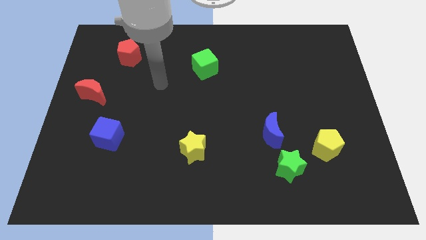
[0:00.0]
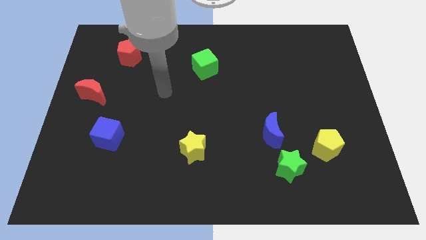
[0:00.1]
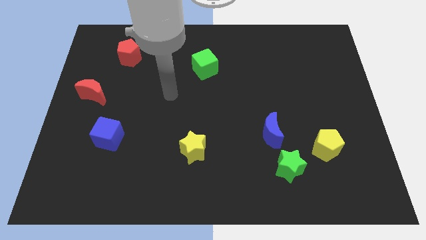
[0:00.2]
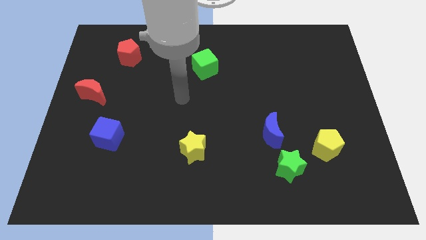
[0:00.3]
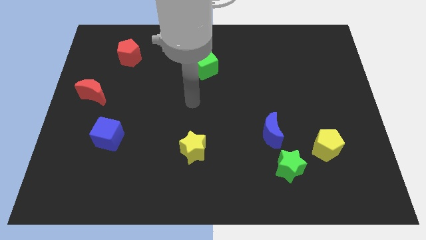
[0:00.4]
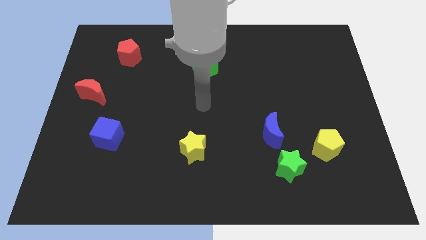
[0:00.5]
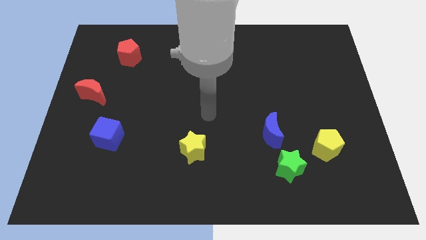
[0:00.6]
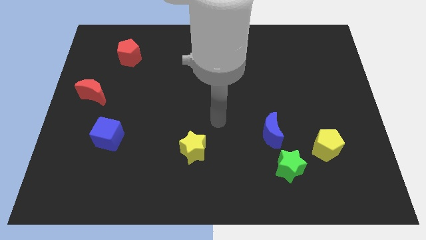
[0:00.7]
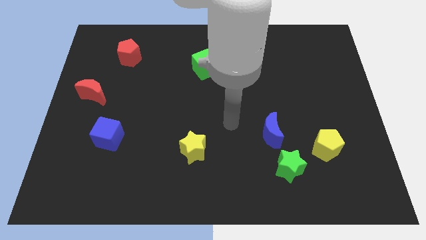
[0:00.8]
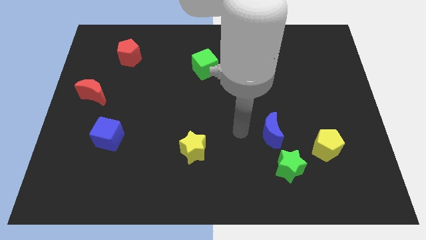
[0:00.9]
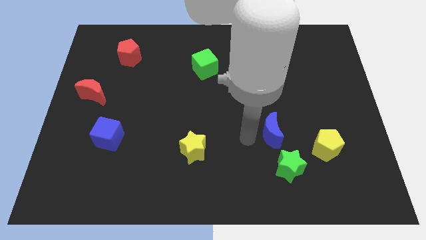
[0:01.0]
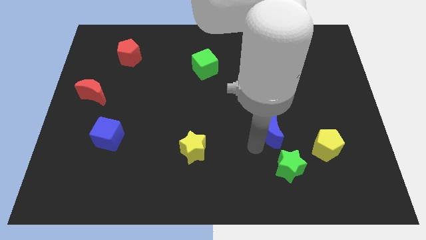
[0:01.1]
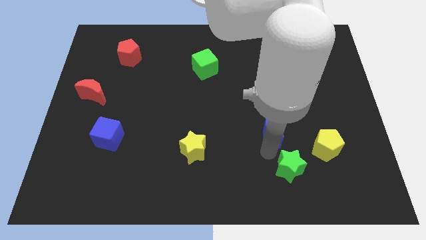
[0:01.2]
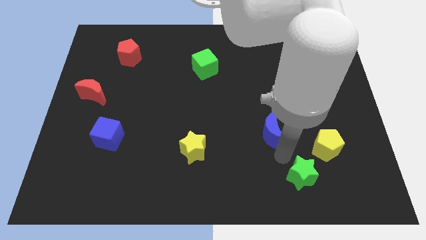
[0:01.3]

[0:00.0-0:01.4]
separate the blue moon from the green star

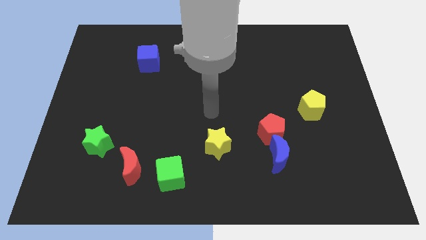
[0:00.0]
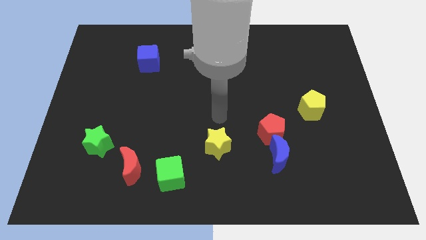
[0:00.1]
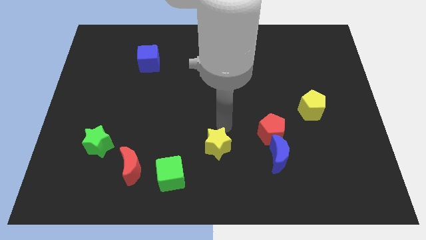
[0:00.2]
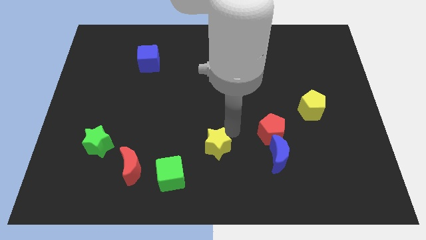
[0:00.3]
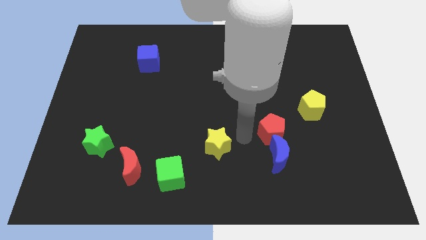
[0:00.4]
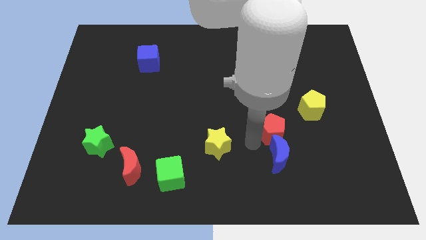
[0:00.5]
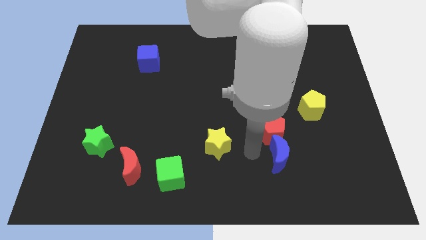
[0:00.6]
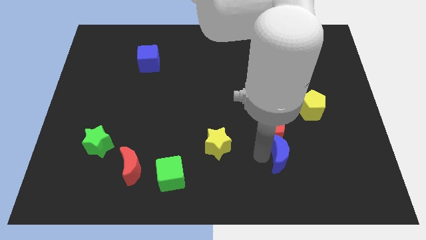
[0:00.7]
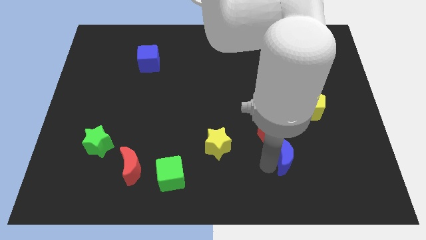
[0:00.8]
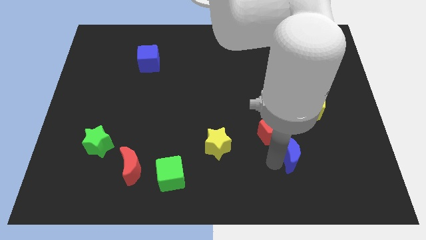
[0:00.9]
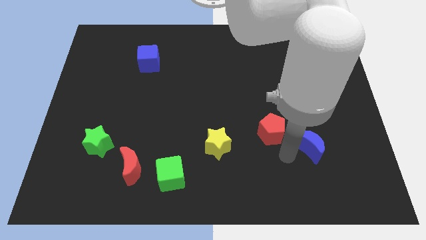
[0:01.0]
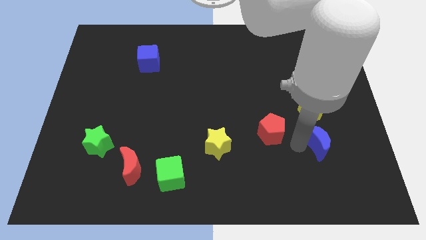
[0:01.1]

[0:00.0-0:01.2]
move the red pentagon away from the blue moon

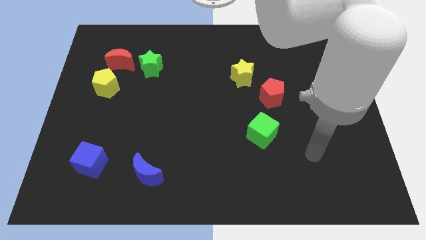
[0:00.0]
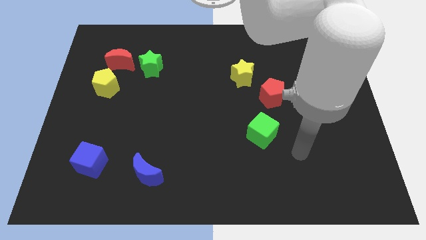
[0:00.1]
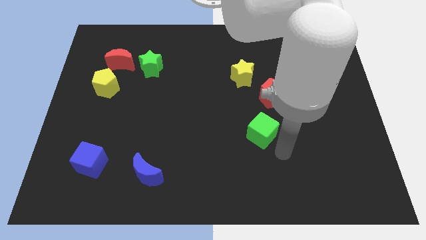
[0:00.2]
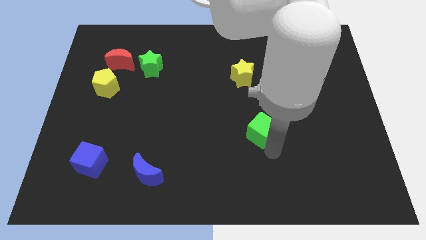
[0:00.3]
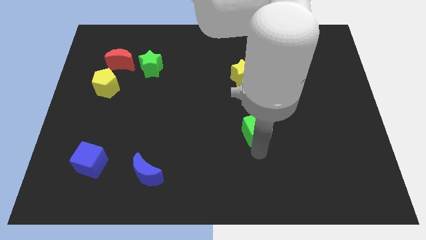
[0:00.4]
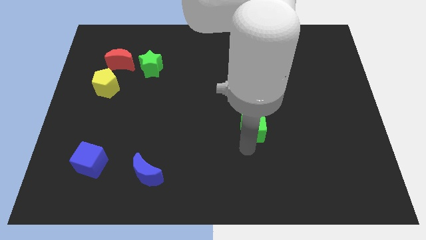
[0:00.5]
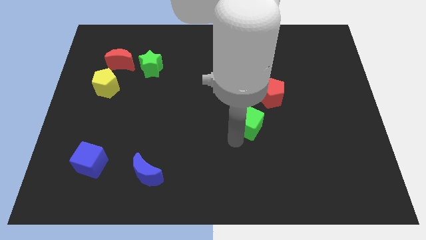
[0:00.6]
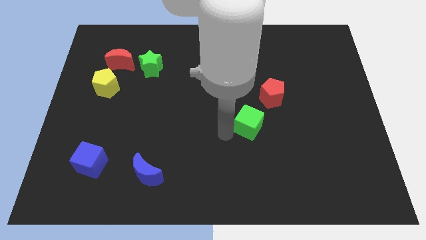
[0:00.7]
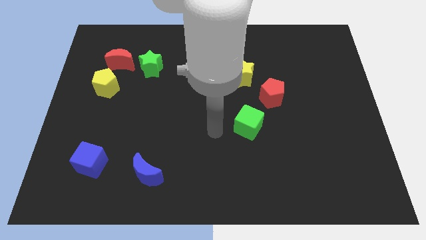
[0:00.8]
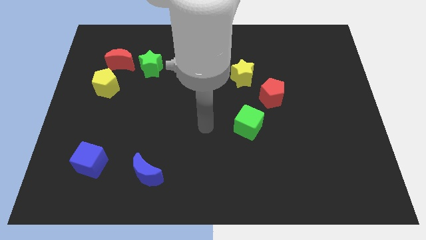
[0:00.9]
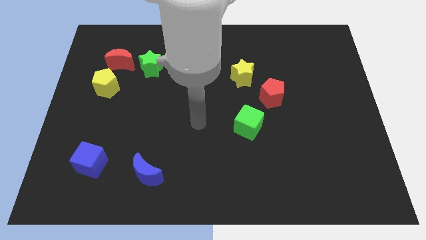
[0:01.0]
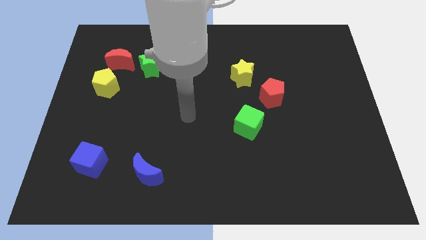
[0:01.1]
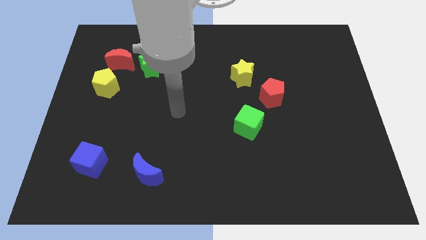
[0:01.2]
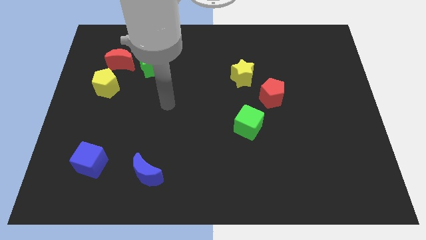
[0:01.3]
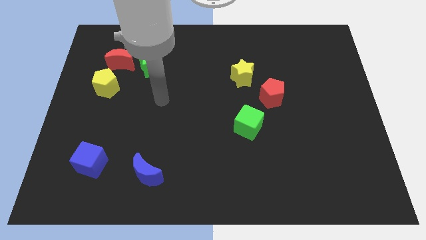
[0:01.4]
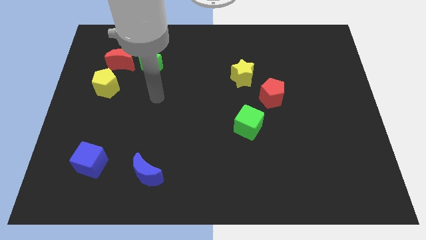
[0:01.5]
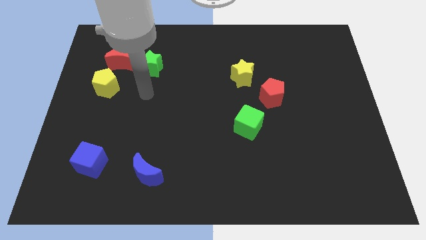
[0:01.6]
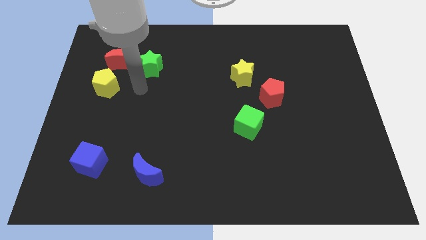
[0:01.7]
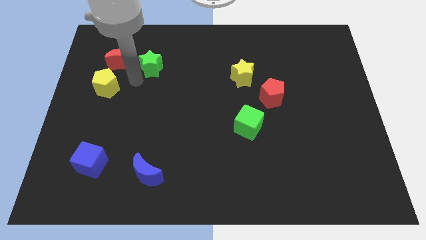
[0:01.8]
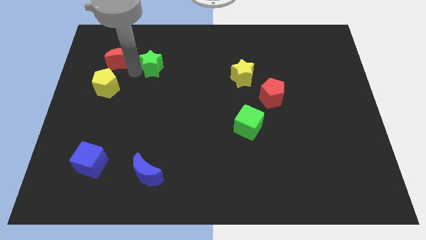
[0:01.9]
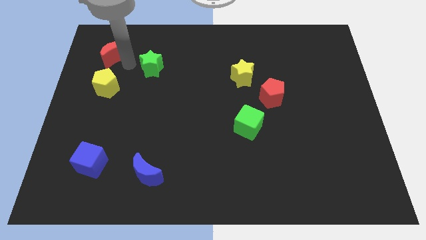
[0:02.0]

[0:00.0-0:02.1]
separate the green star from the red moon

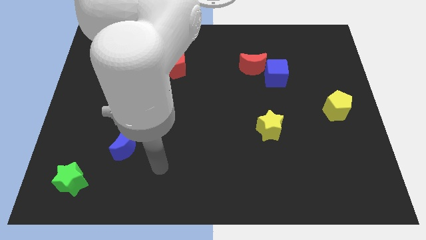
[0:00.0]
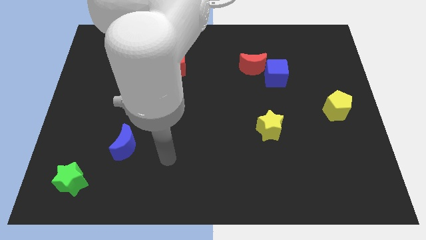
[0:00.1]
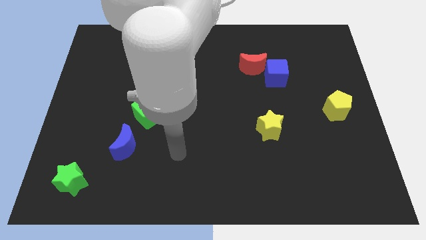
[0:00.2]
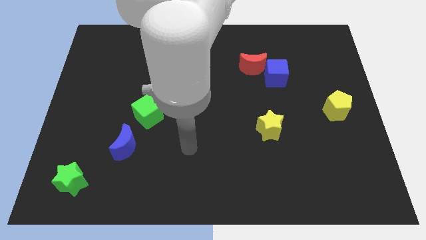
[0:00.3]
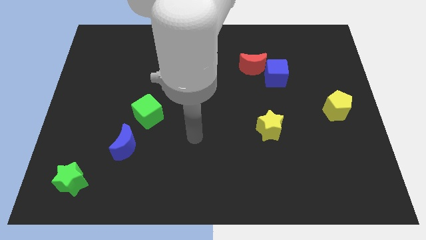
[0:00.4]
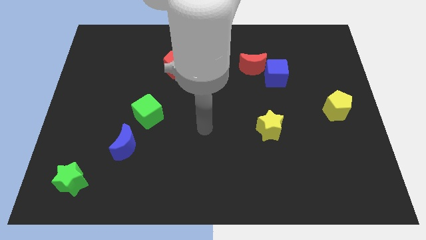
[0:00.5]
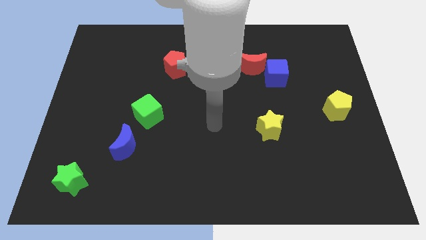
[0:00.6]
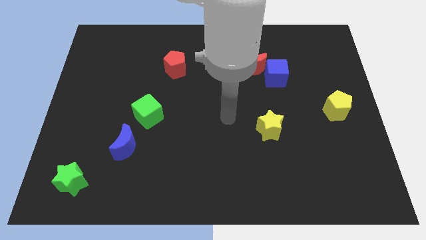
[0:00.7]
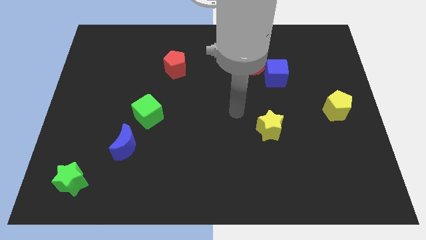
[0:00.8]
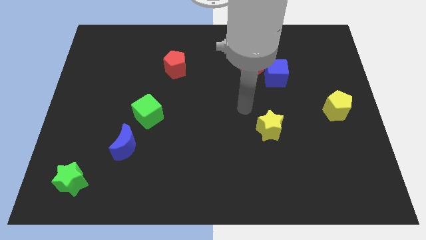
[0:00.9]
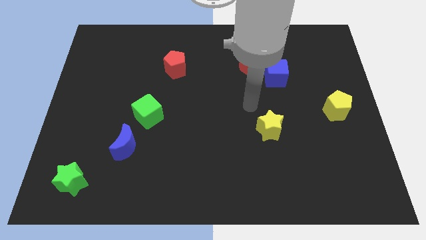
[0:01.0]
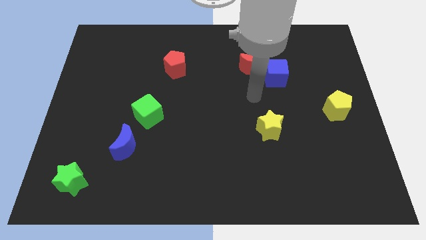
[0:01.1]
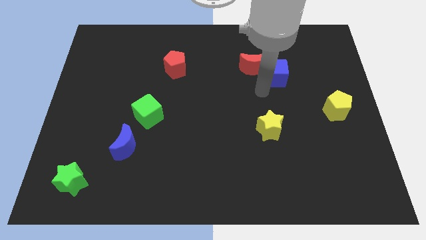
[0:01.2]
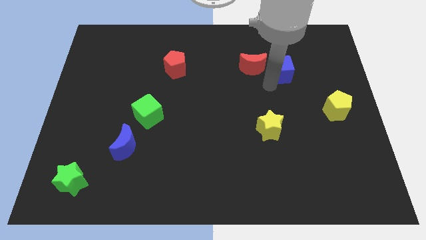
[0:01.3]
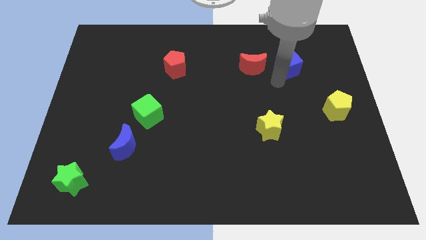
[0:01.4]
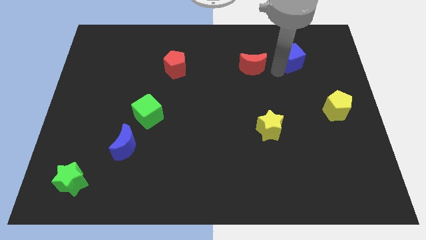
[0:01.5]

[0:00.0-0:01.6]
move the red moon away from the blue cube

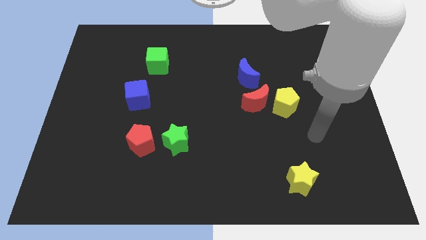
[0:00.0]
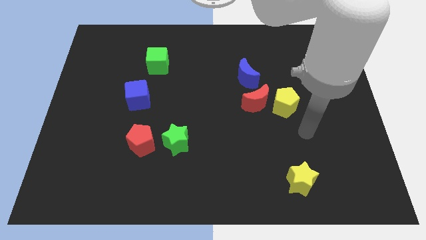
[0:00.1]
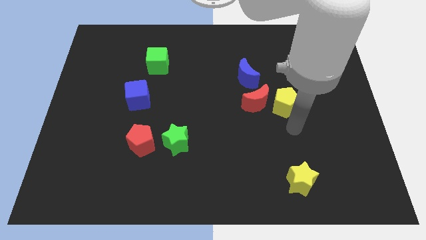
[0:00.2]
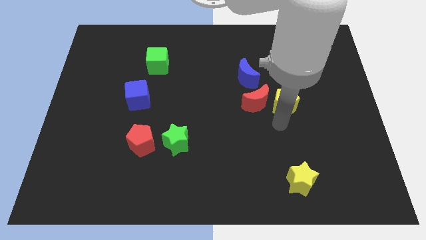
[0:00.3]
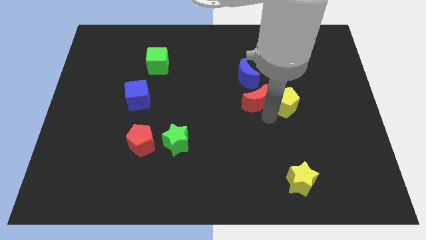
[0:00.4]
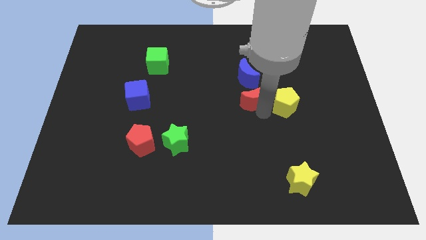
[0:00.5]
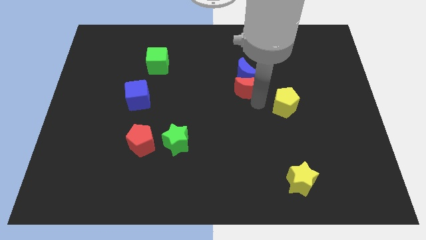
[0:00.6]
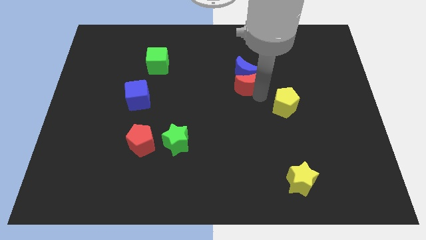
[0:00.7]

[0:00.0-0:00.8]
separate the yellow pentagon from the red moon

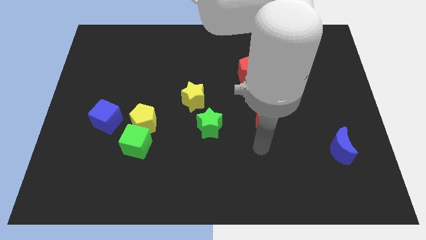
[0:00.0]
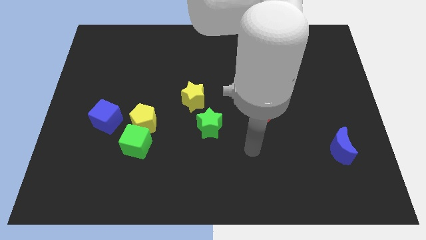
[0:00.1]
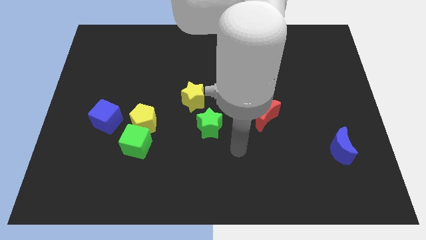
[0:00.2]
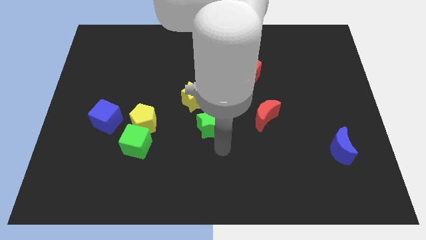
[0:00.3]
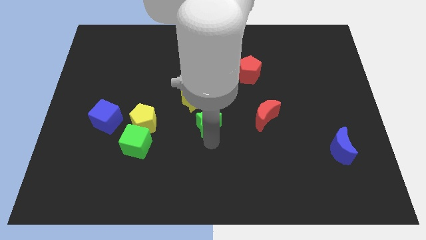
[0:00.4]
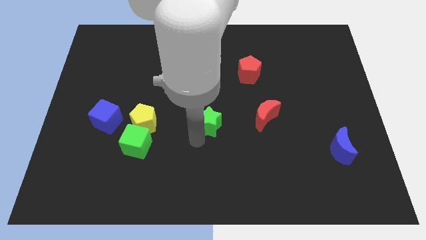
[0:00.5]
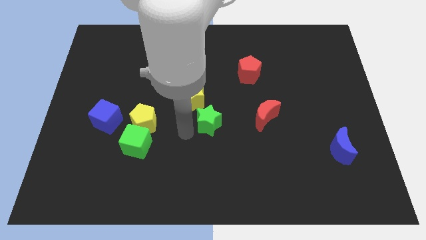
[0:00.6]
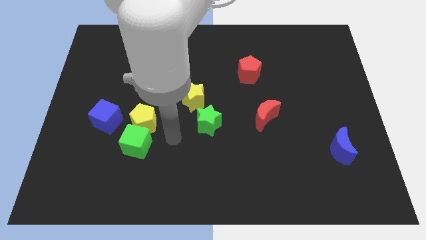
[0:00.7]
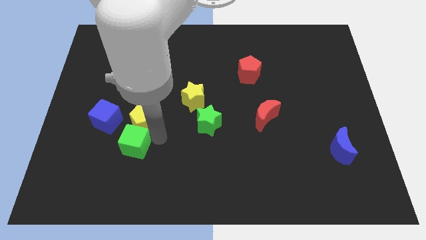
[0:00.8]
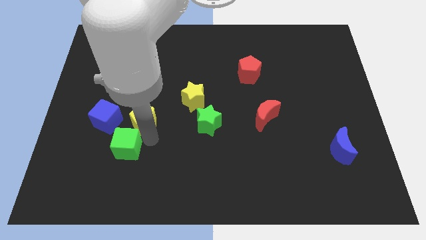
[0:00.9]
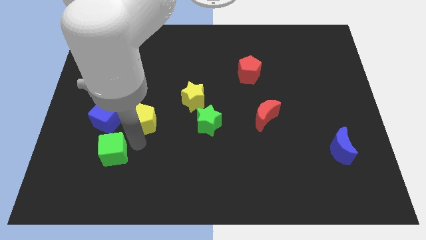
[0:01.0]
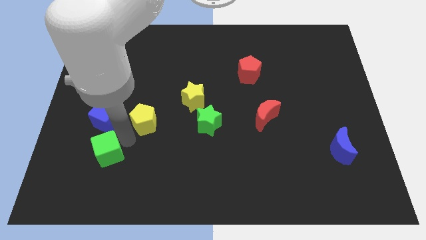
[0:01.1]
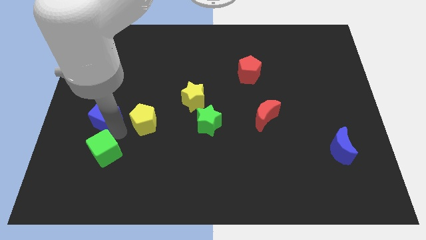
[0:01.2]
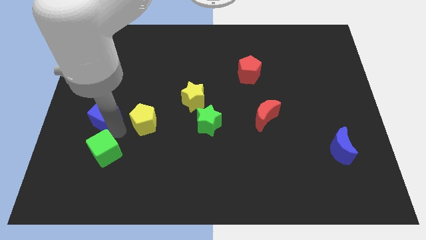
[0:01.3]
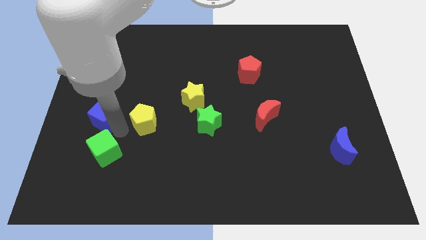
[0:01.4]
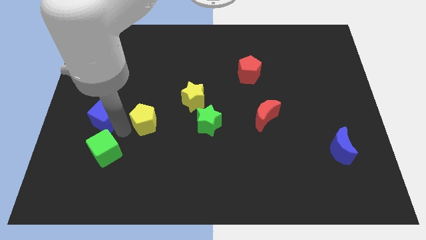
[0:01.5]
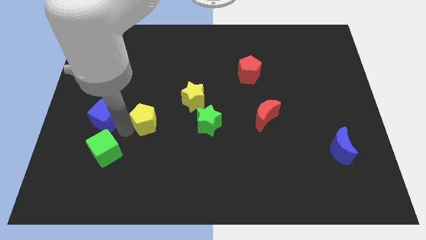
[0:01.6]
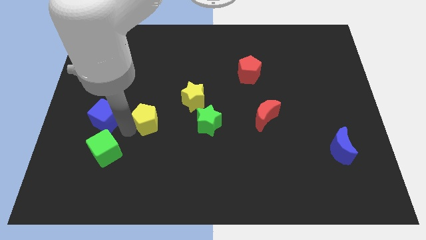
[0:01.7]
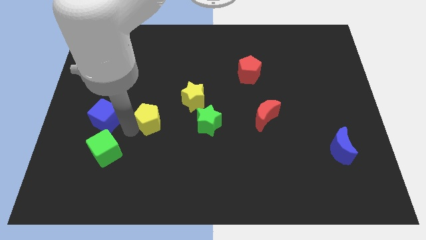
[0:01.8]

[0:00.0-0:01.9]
move the yellow pentagon away from the green cube and blue cube

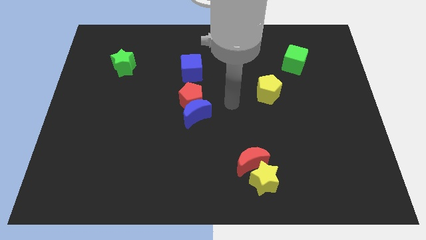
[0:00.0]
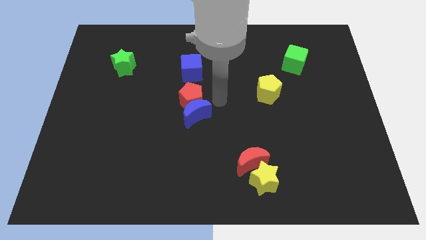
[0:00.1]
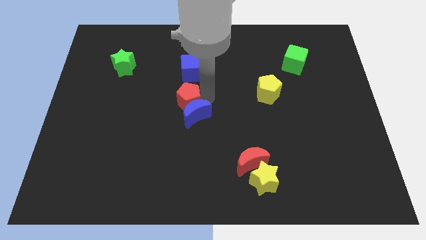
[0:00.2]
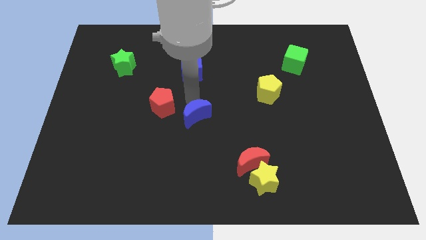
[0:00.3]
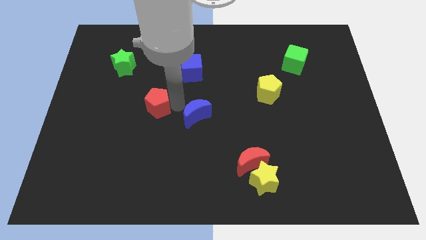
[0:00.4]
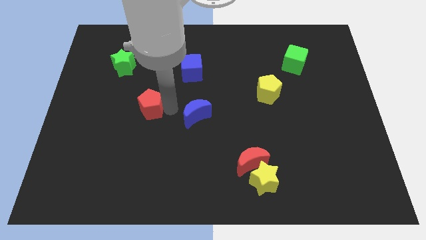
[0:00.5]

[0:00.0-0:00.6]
pull the blue moon apart from the red pentagon
